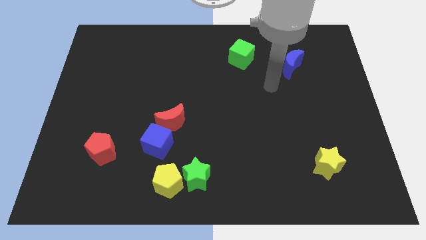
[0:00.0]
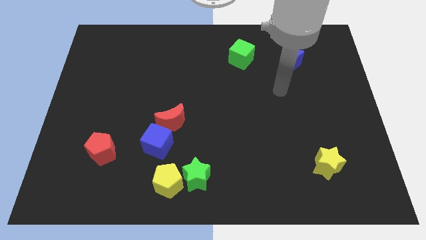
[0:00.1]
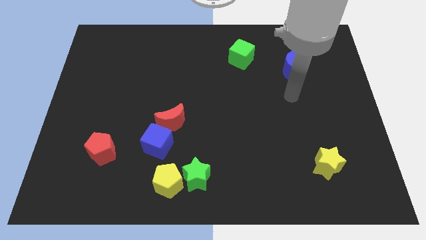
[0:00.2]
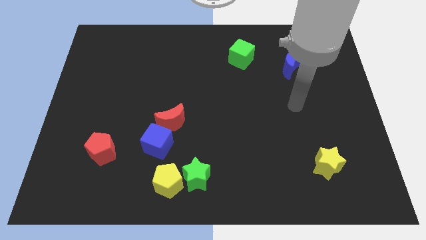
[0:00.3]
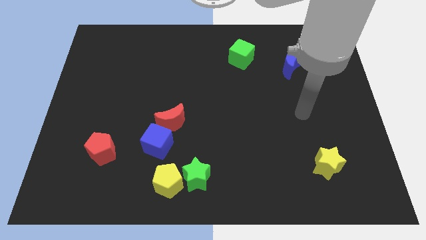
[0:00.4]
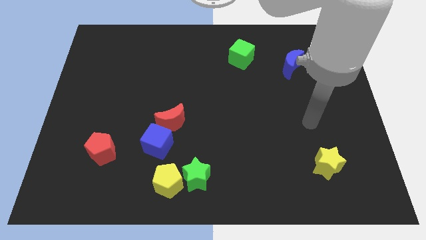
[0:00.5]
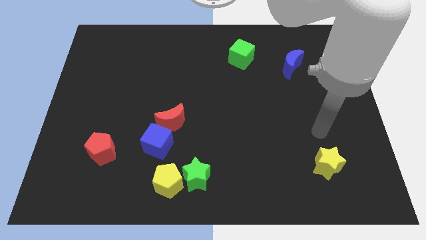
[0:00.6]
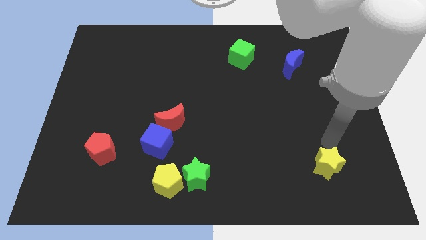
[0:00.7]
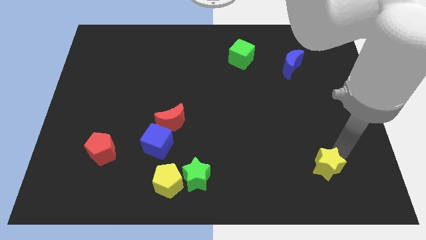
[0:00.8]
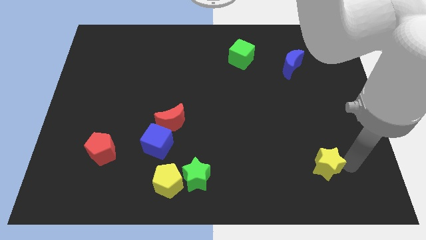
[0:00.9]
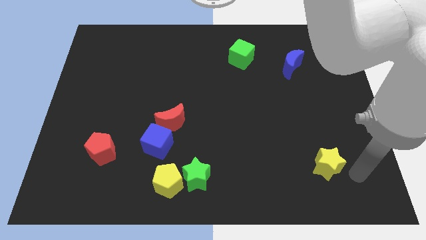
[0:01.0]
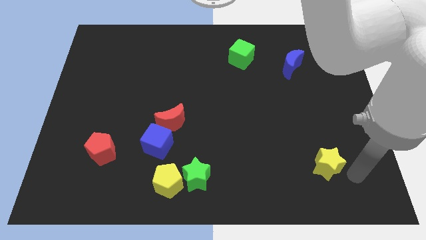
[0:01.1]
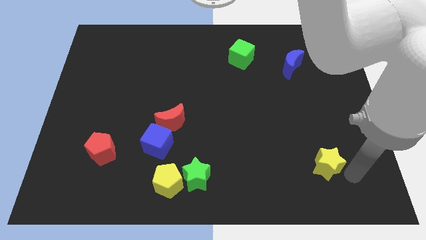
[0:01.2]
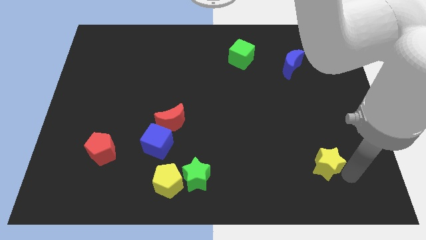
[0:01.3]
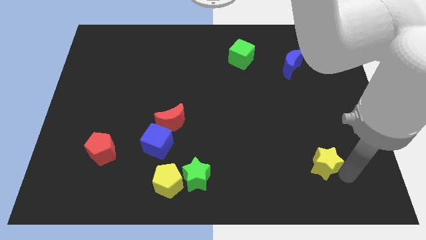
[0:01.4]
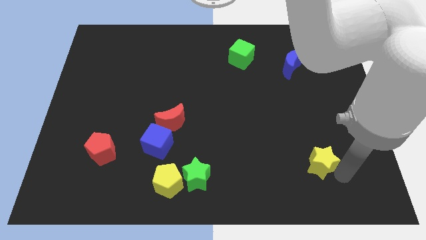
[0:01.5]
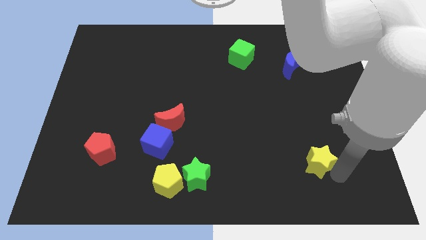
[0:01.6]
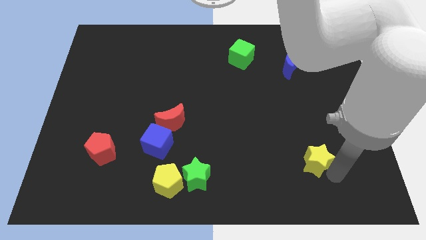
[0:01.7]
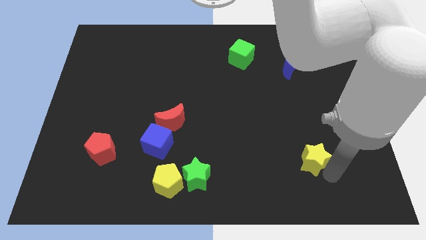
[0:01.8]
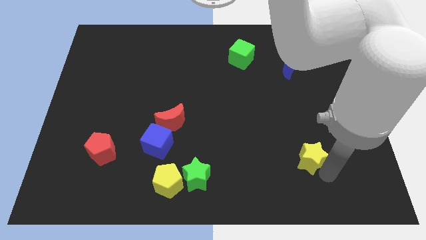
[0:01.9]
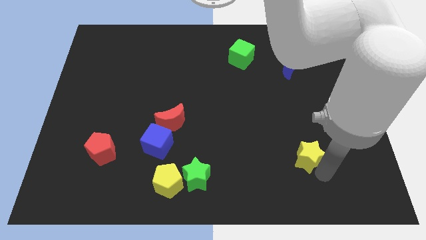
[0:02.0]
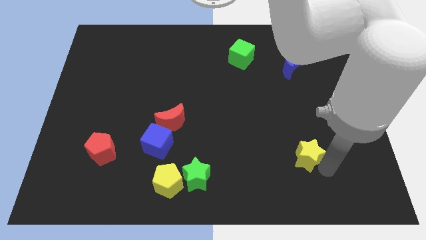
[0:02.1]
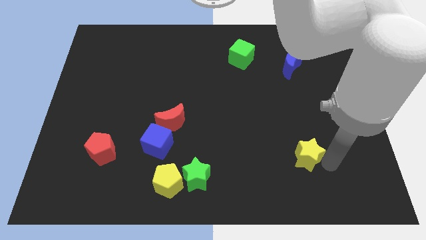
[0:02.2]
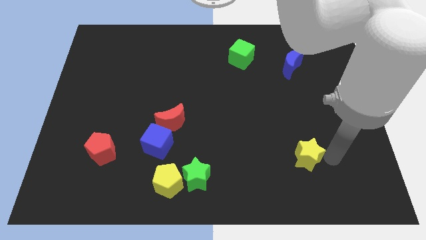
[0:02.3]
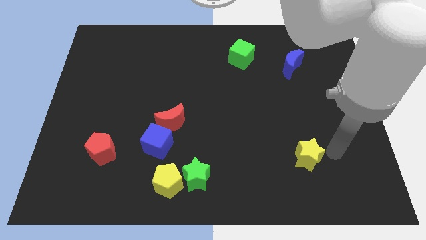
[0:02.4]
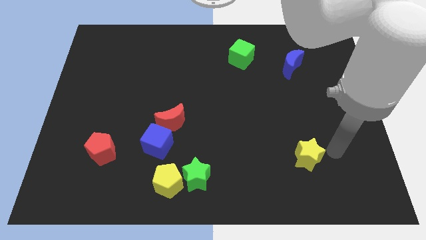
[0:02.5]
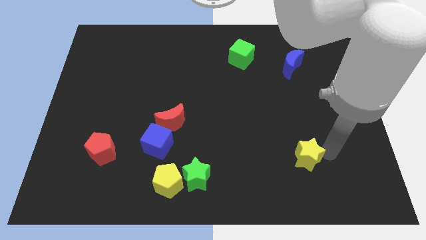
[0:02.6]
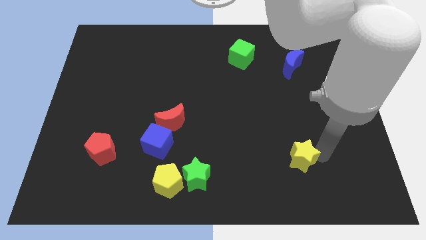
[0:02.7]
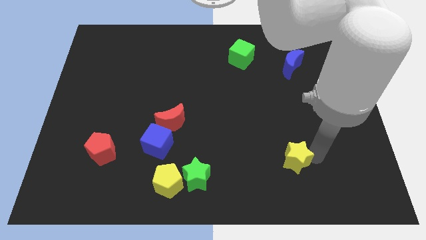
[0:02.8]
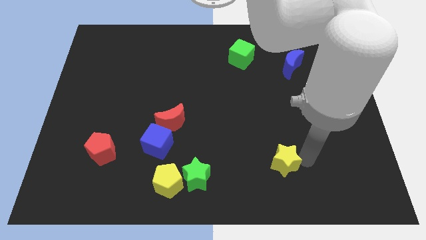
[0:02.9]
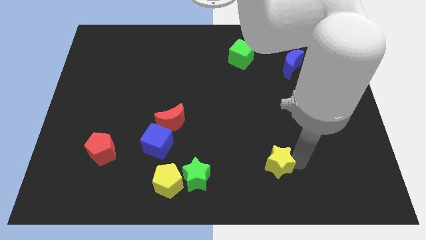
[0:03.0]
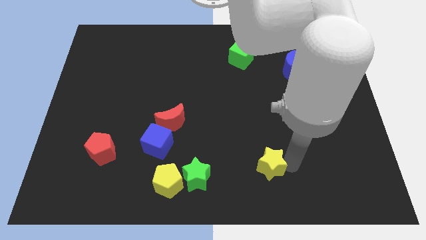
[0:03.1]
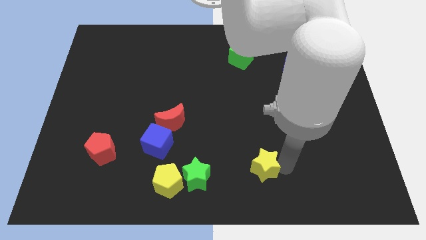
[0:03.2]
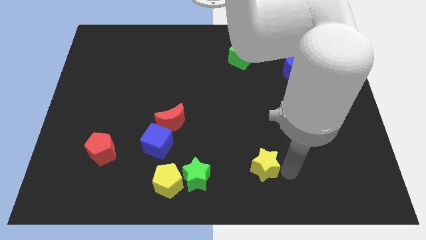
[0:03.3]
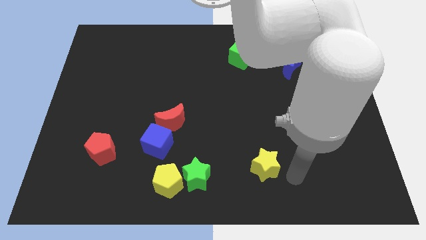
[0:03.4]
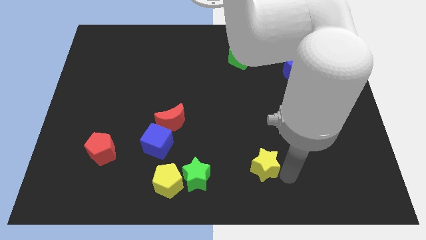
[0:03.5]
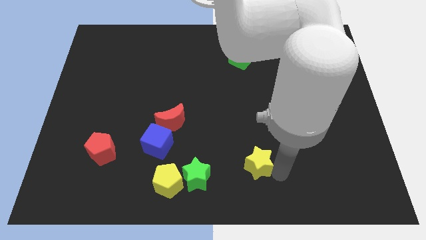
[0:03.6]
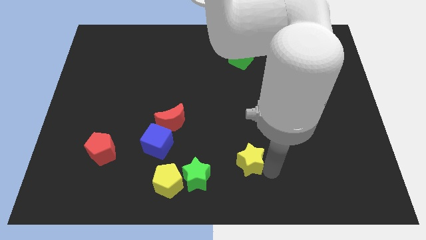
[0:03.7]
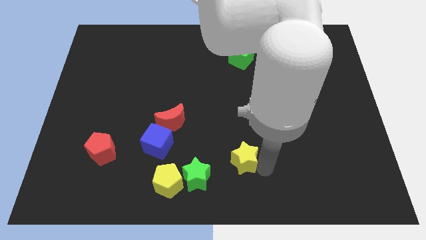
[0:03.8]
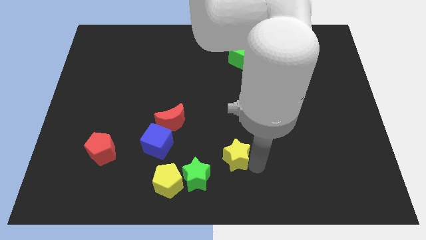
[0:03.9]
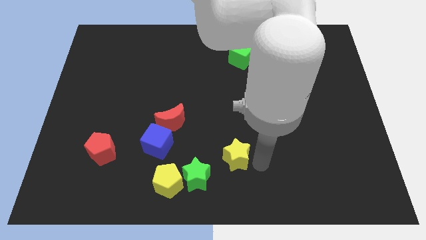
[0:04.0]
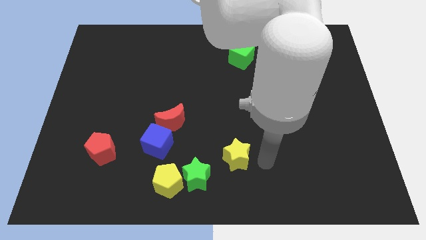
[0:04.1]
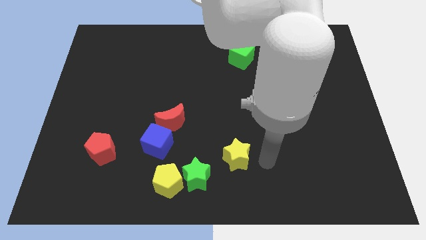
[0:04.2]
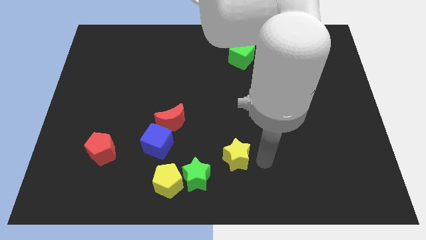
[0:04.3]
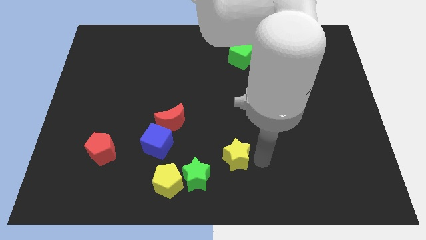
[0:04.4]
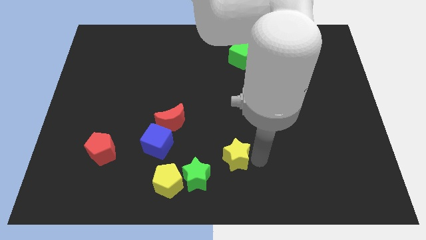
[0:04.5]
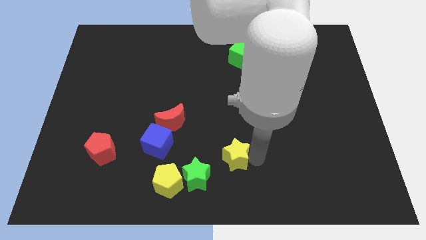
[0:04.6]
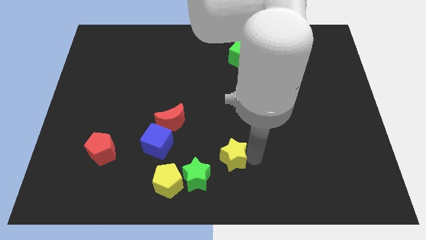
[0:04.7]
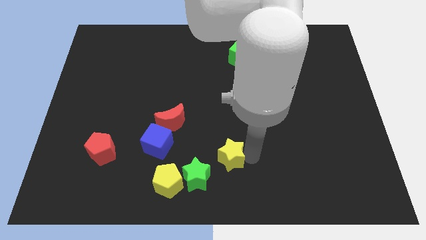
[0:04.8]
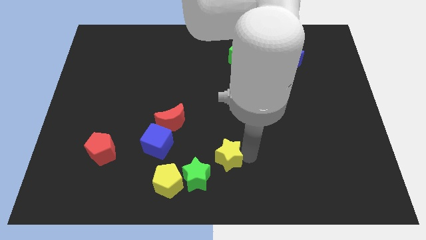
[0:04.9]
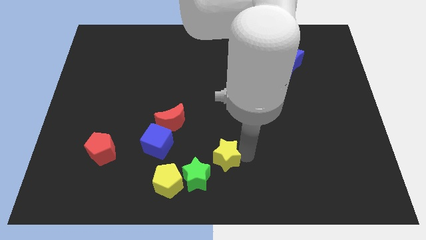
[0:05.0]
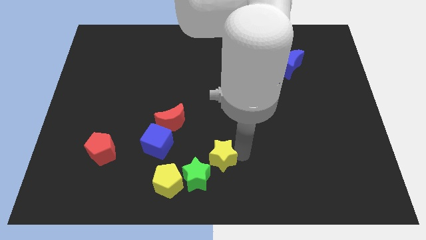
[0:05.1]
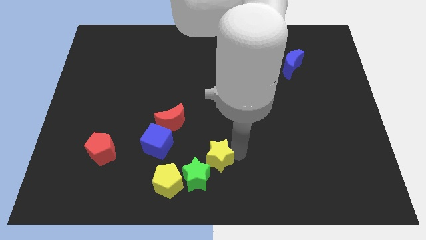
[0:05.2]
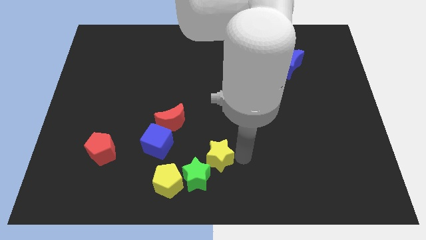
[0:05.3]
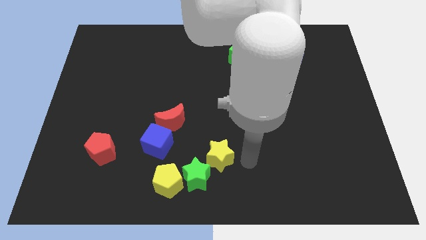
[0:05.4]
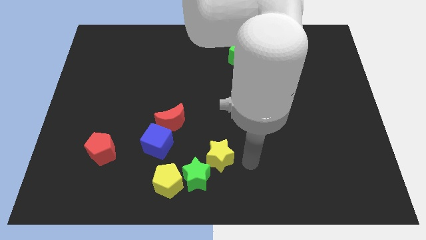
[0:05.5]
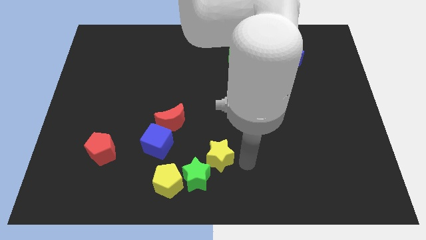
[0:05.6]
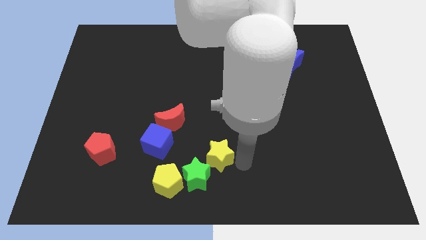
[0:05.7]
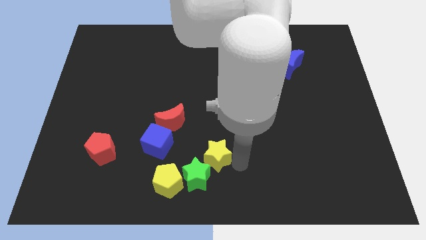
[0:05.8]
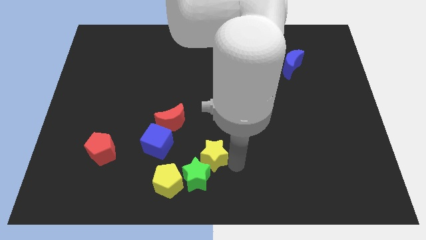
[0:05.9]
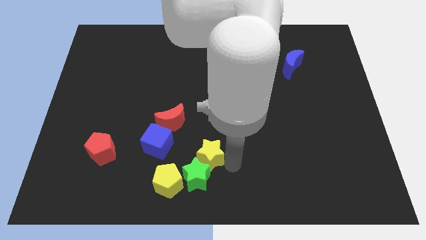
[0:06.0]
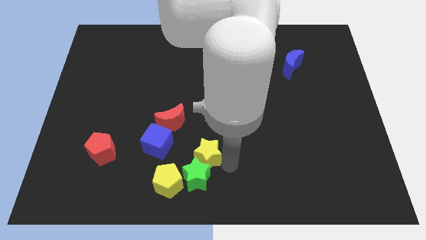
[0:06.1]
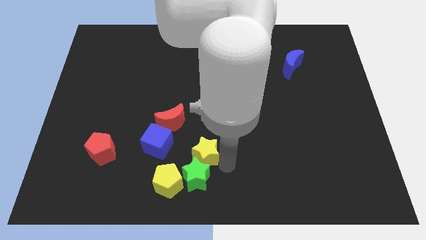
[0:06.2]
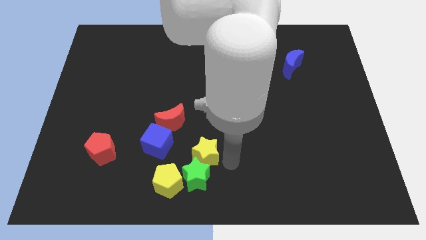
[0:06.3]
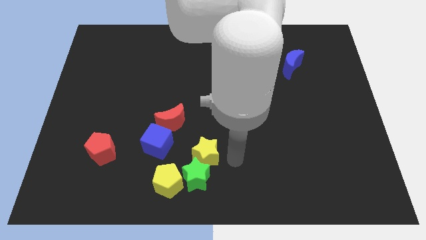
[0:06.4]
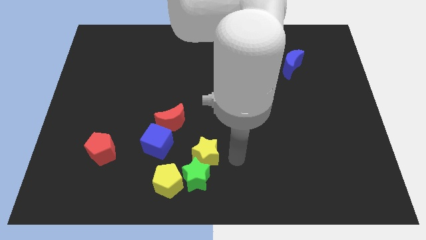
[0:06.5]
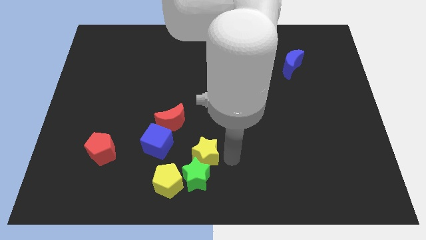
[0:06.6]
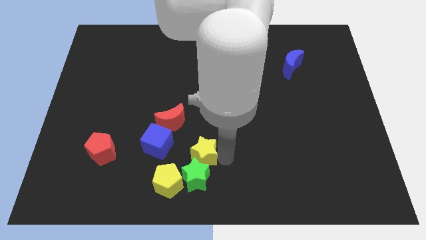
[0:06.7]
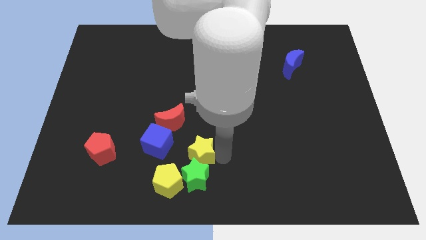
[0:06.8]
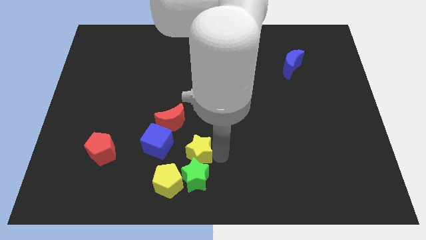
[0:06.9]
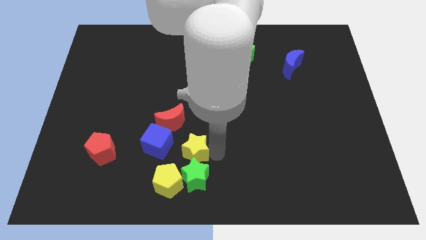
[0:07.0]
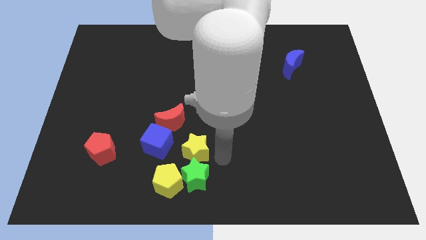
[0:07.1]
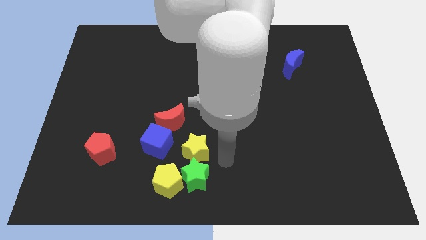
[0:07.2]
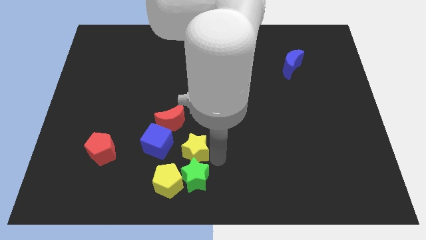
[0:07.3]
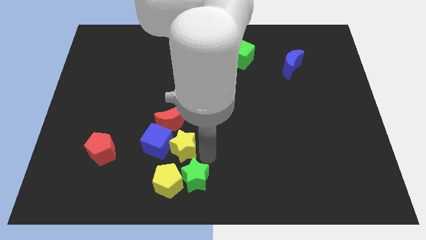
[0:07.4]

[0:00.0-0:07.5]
push the yellow star to the blue cube
